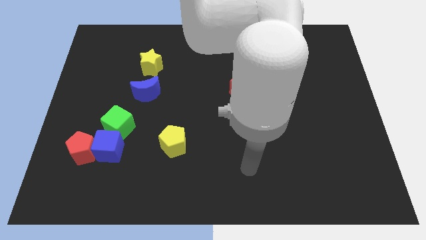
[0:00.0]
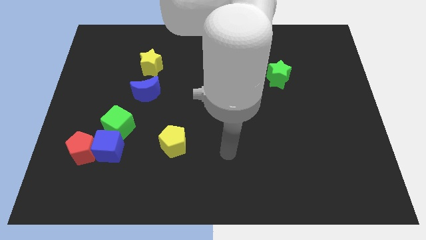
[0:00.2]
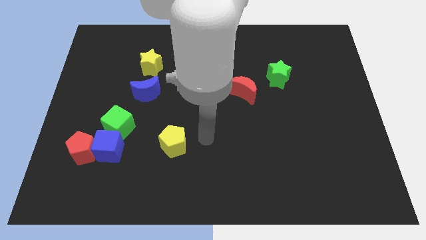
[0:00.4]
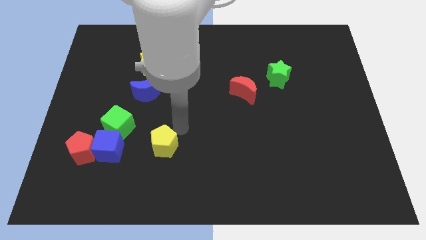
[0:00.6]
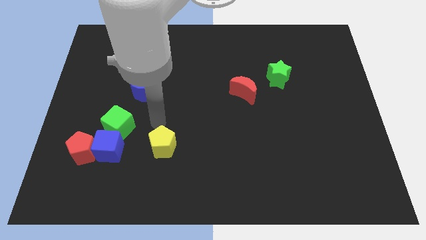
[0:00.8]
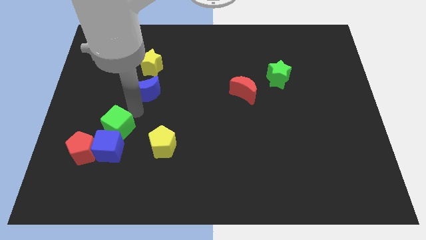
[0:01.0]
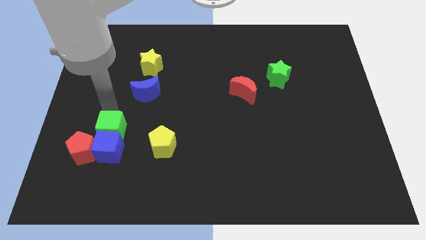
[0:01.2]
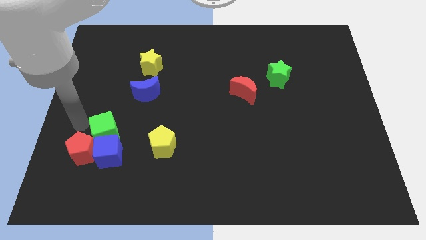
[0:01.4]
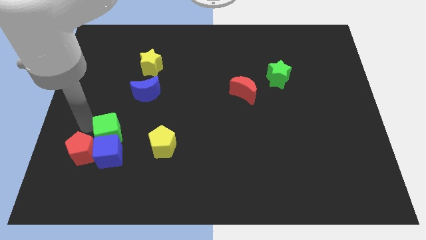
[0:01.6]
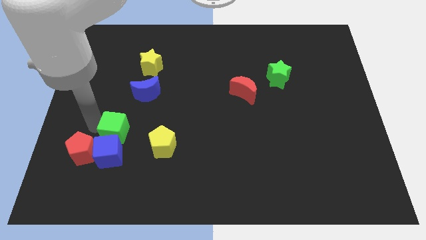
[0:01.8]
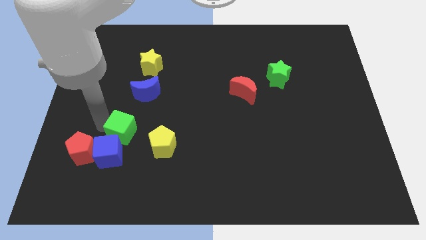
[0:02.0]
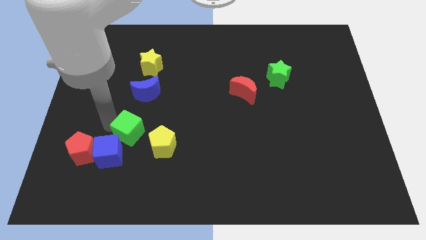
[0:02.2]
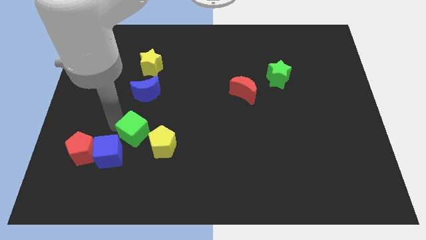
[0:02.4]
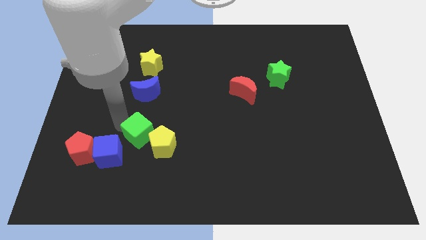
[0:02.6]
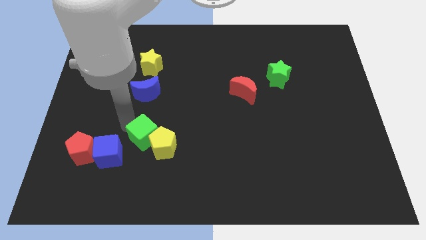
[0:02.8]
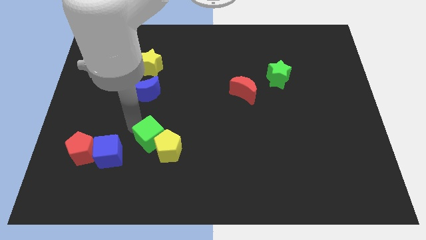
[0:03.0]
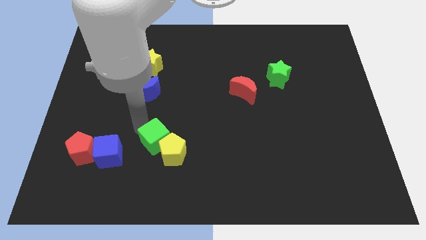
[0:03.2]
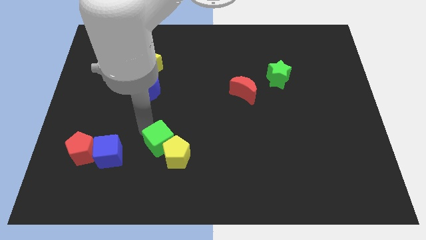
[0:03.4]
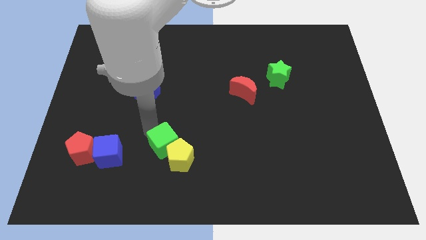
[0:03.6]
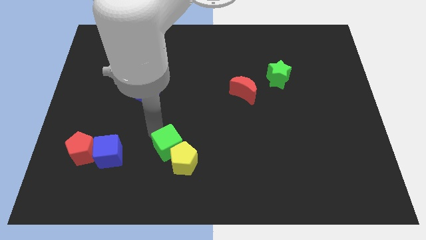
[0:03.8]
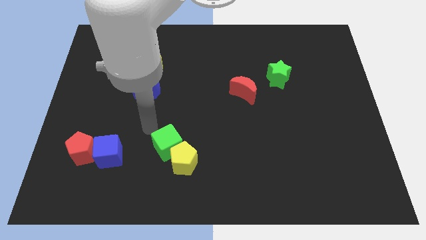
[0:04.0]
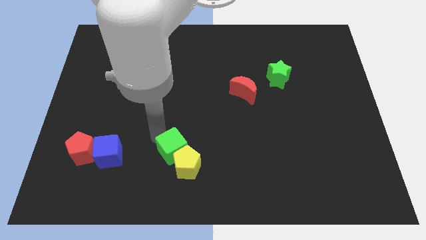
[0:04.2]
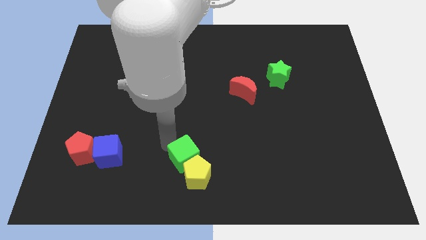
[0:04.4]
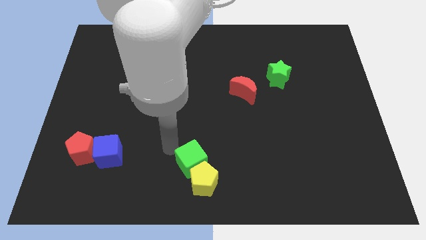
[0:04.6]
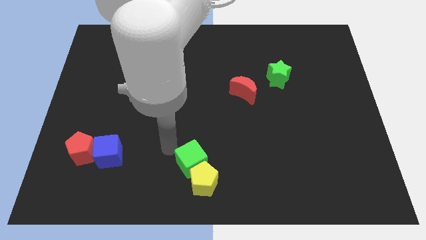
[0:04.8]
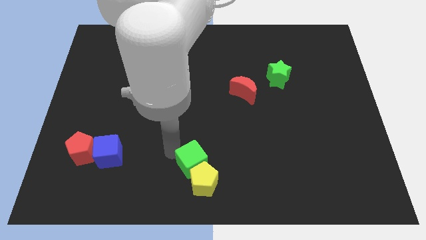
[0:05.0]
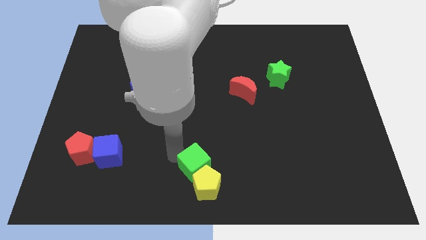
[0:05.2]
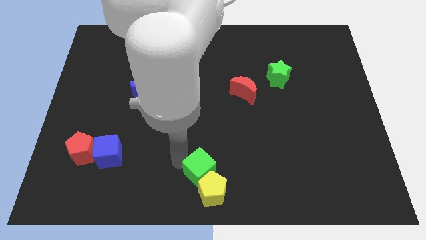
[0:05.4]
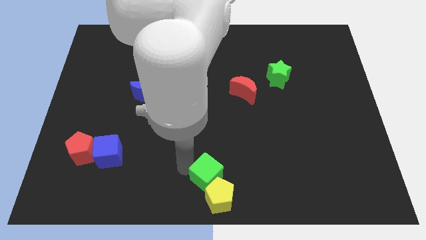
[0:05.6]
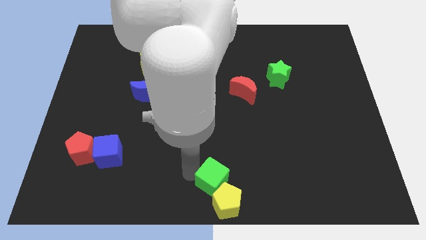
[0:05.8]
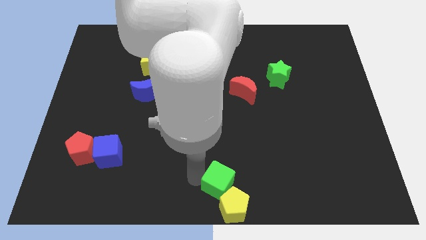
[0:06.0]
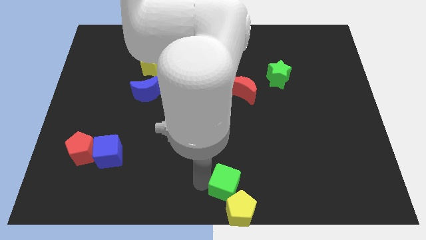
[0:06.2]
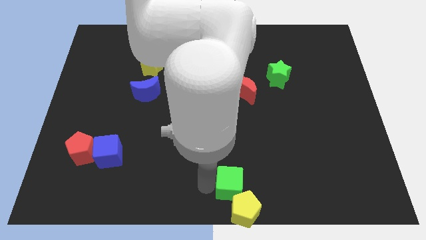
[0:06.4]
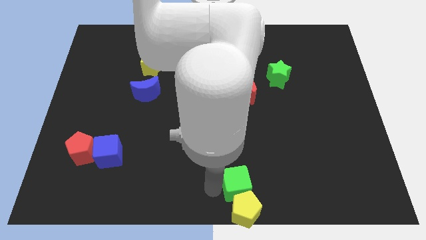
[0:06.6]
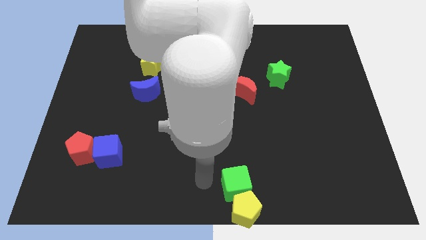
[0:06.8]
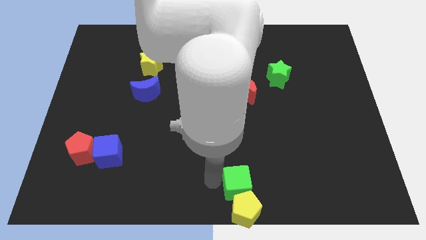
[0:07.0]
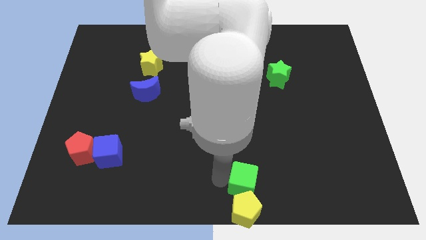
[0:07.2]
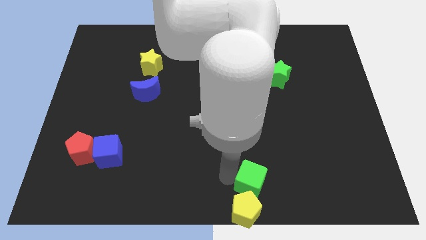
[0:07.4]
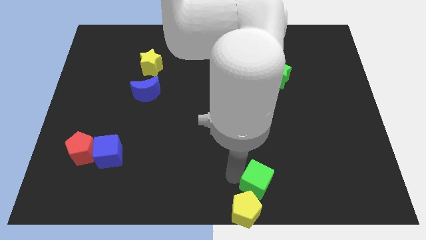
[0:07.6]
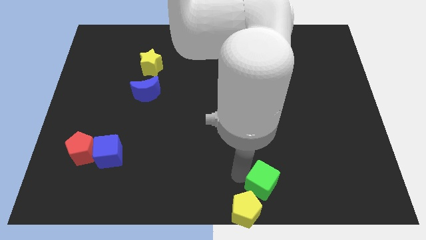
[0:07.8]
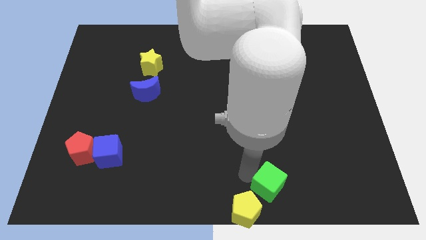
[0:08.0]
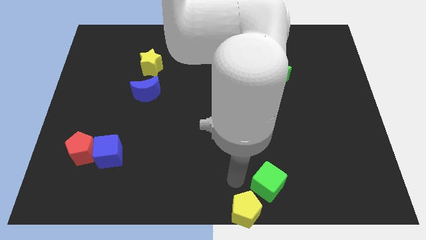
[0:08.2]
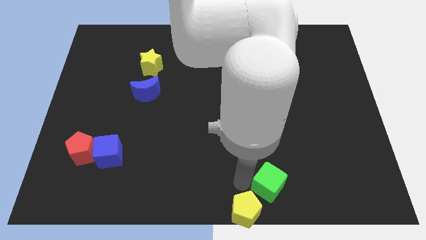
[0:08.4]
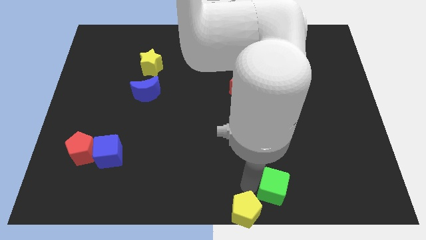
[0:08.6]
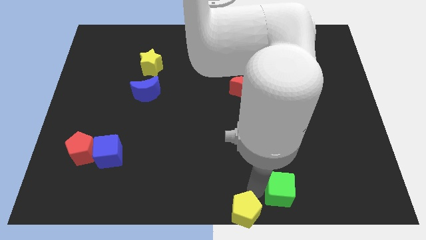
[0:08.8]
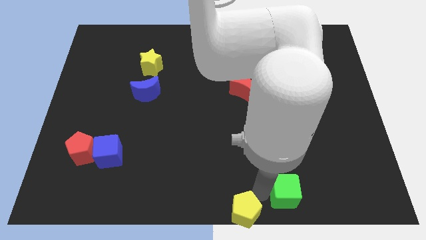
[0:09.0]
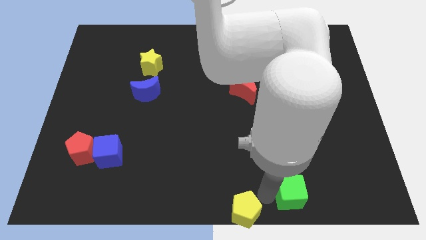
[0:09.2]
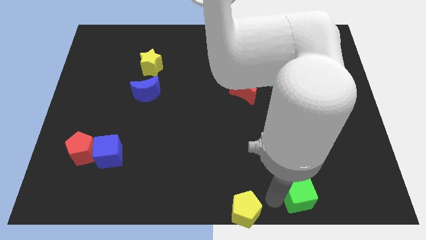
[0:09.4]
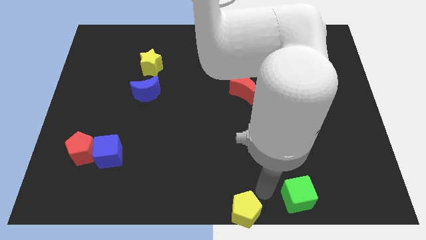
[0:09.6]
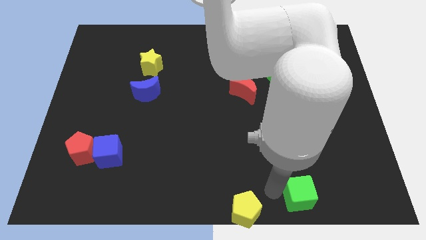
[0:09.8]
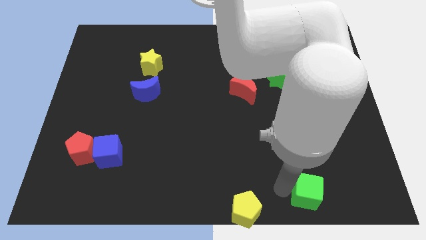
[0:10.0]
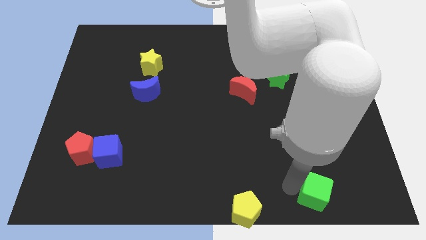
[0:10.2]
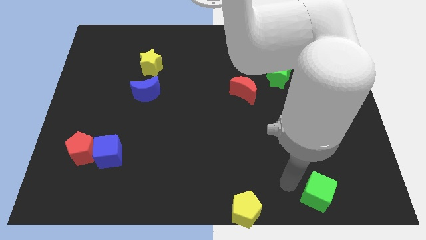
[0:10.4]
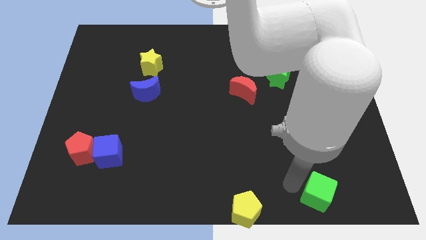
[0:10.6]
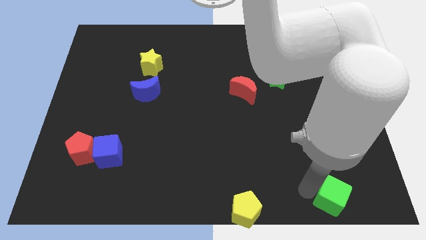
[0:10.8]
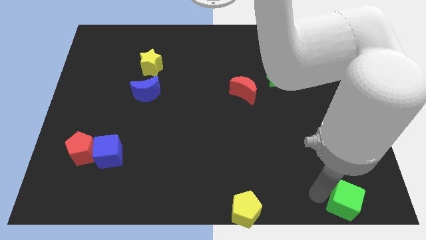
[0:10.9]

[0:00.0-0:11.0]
move the green cube to the bottom right

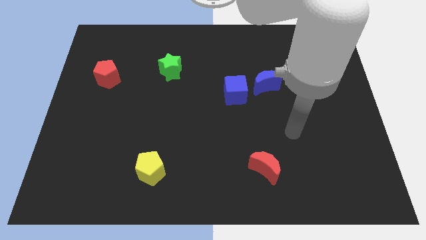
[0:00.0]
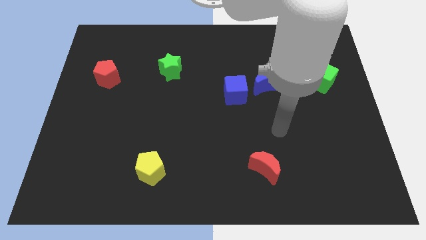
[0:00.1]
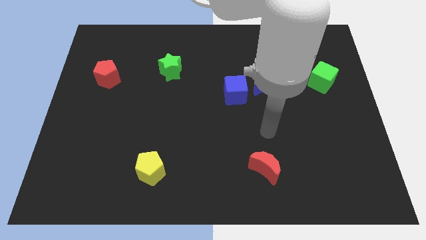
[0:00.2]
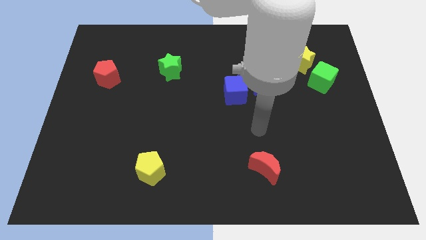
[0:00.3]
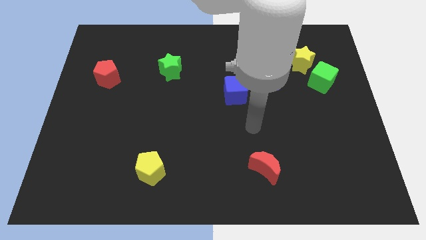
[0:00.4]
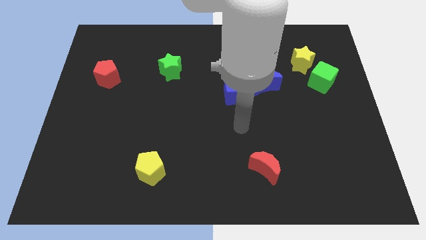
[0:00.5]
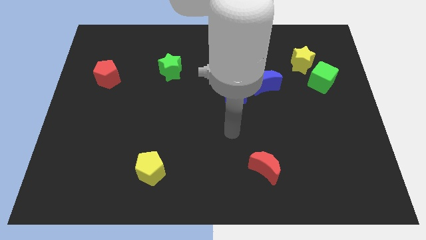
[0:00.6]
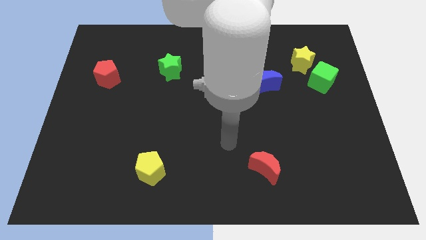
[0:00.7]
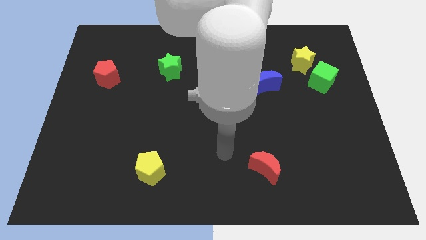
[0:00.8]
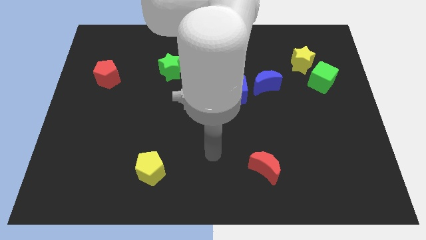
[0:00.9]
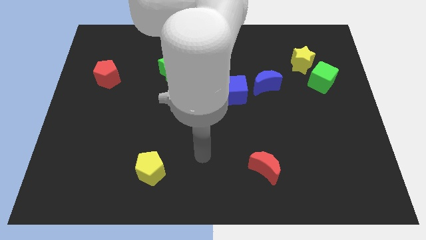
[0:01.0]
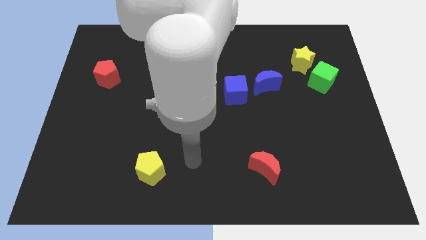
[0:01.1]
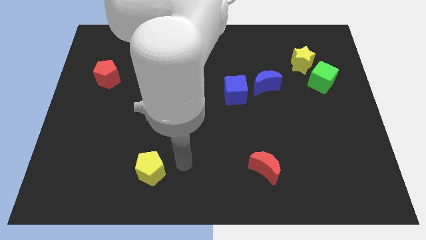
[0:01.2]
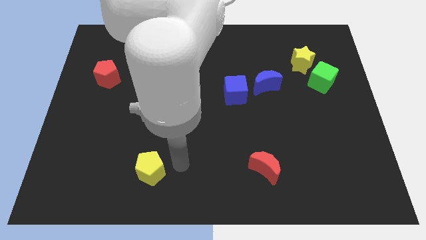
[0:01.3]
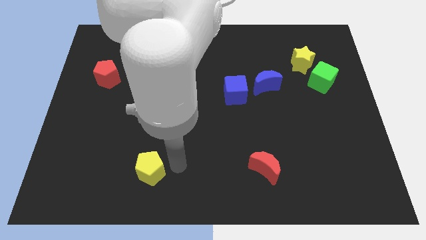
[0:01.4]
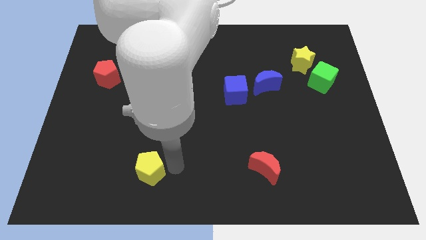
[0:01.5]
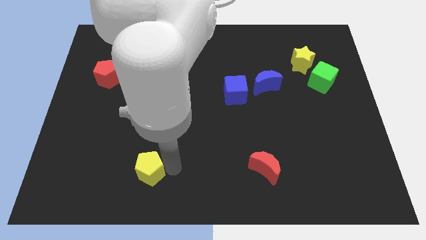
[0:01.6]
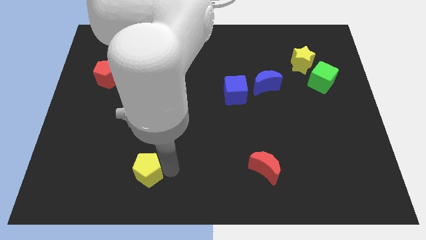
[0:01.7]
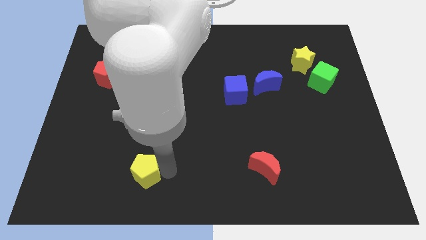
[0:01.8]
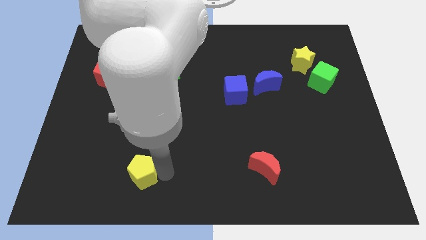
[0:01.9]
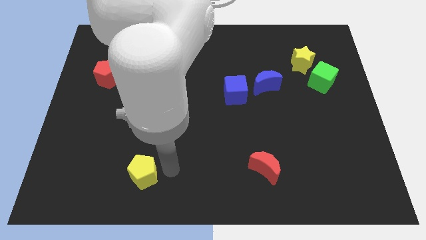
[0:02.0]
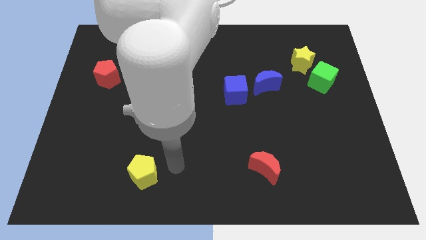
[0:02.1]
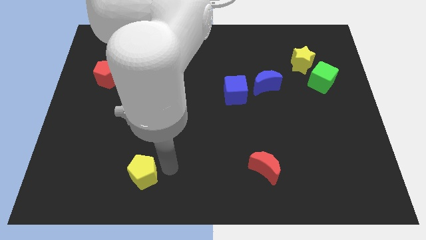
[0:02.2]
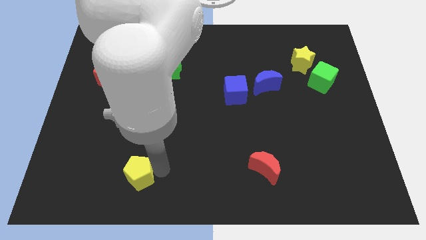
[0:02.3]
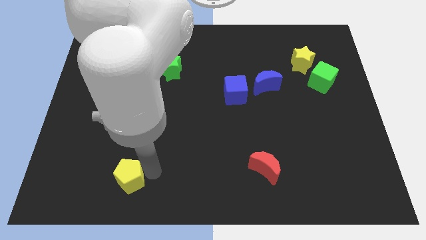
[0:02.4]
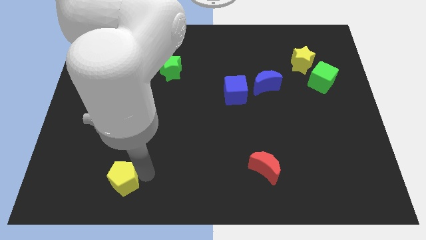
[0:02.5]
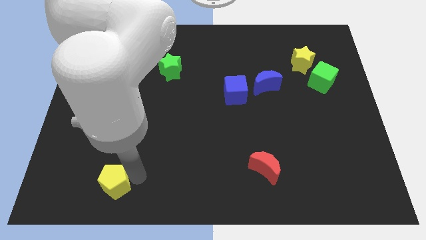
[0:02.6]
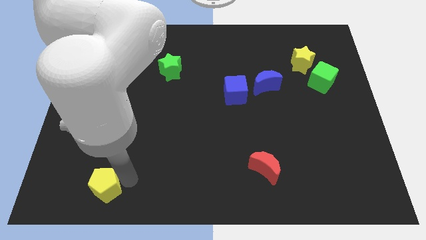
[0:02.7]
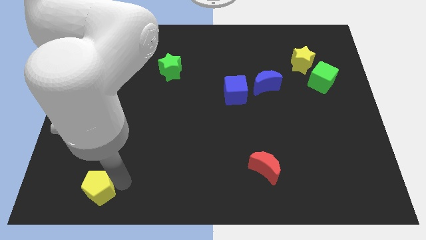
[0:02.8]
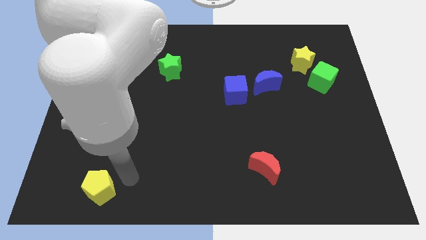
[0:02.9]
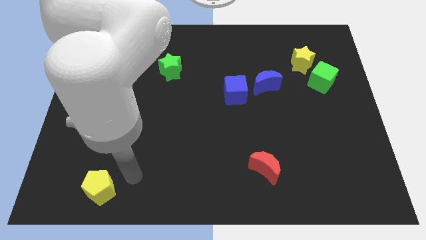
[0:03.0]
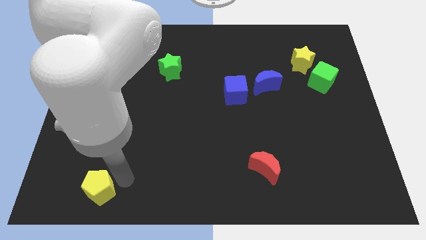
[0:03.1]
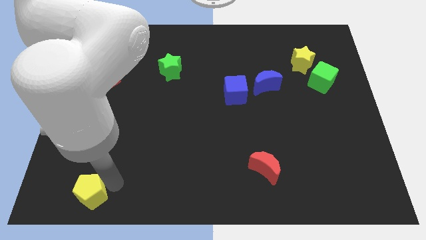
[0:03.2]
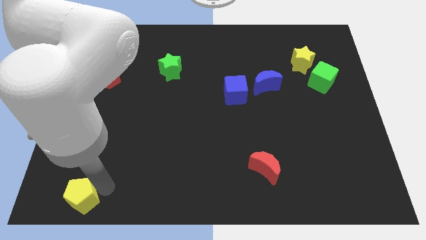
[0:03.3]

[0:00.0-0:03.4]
put the yellow pentagon to the bottom left of the board
